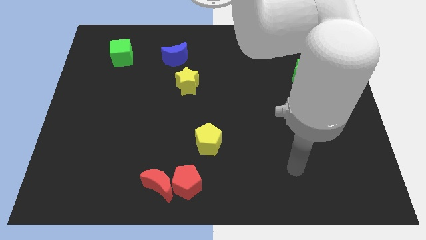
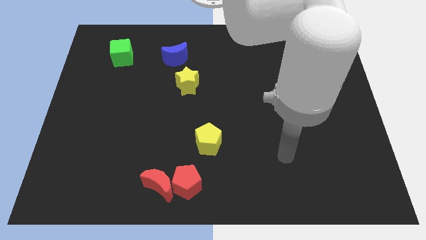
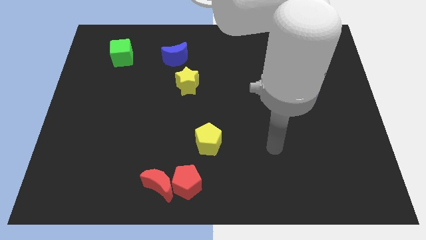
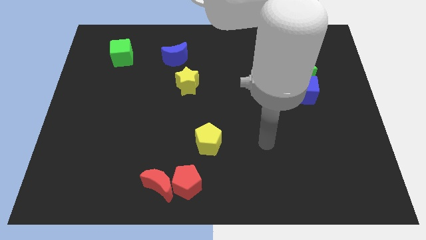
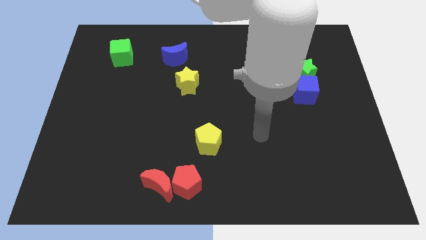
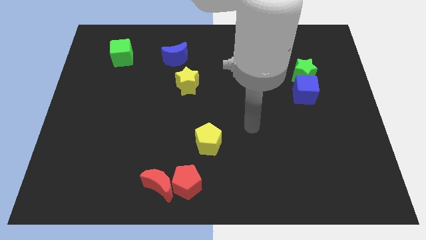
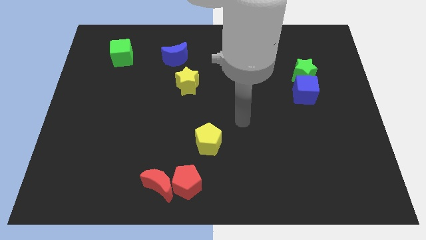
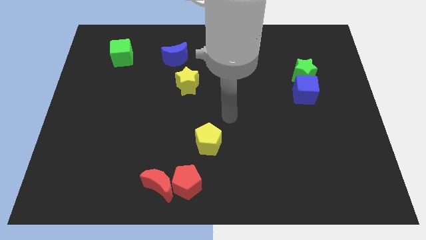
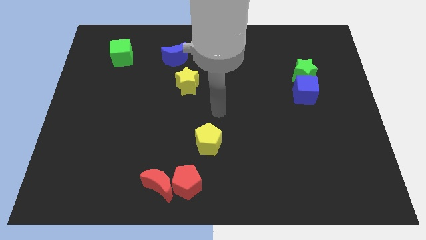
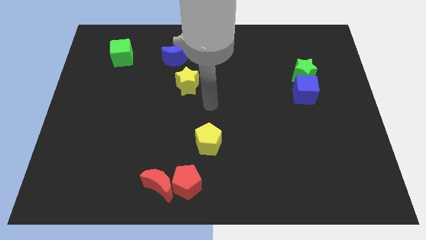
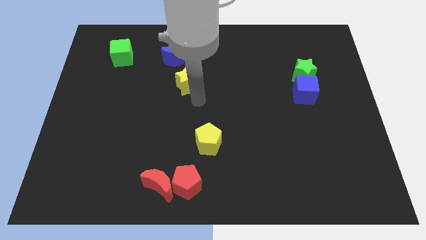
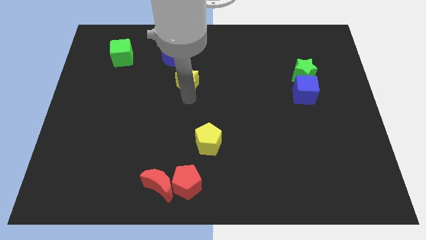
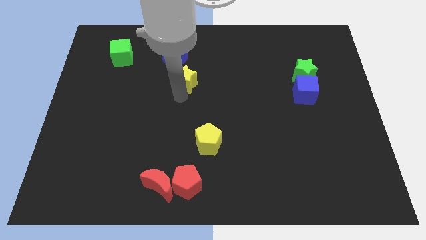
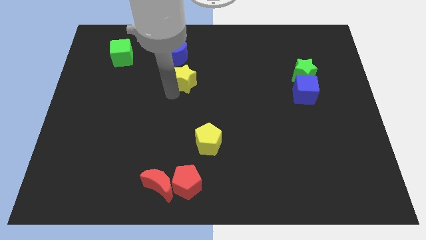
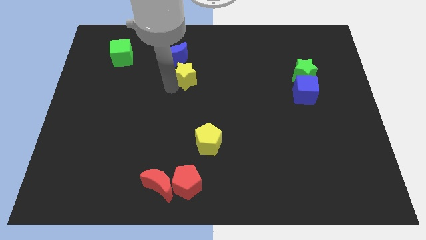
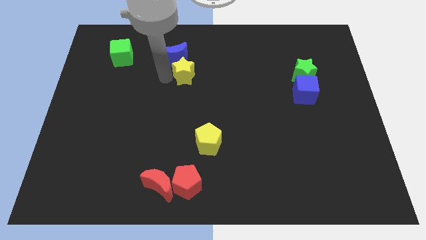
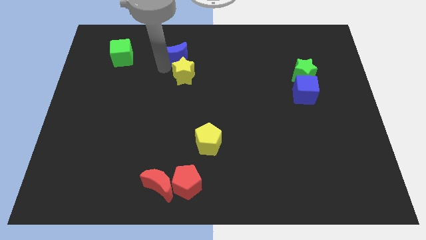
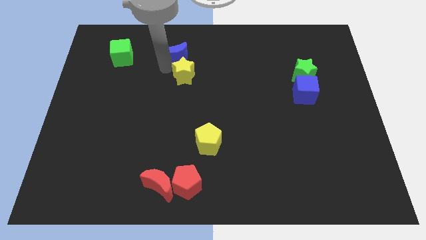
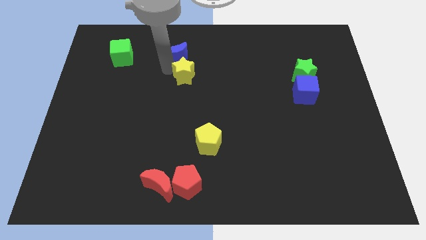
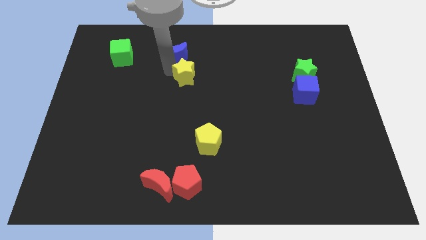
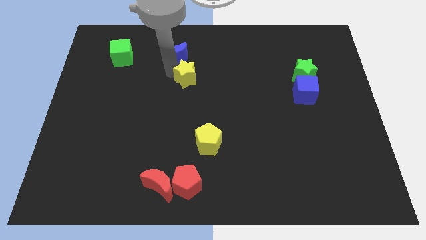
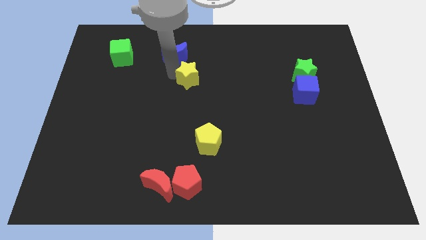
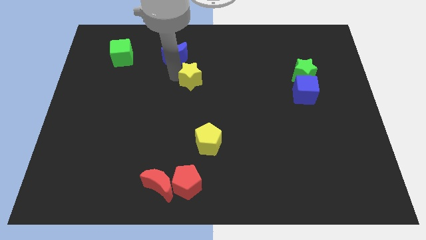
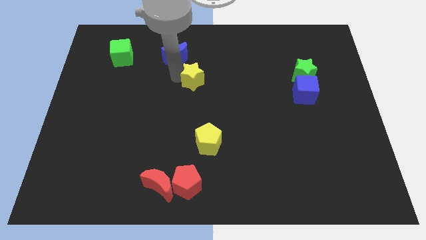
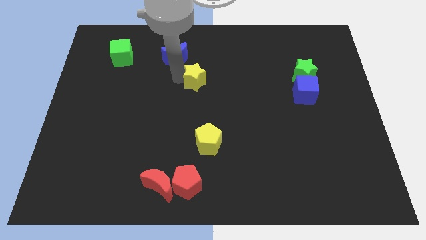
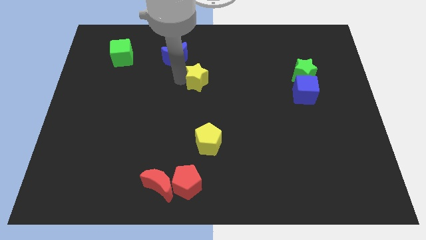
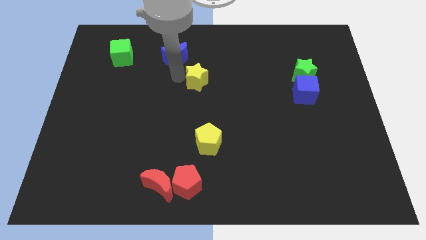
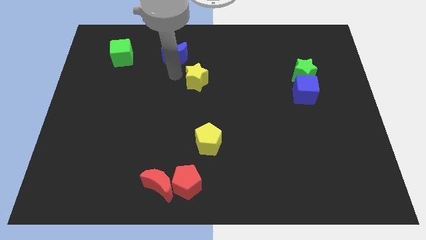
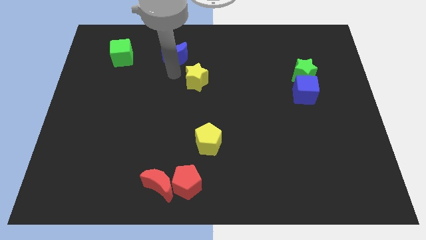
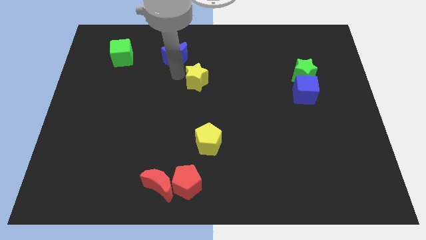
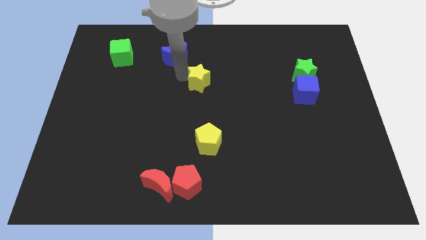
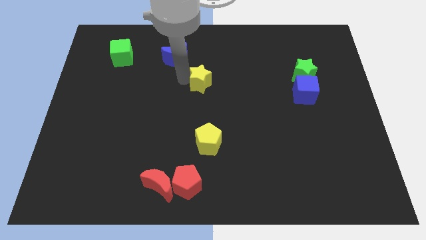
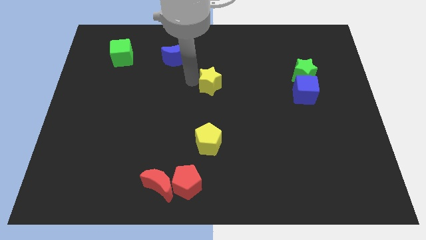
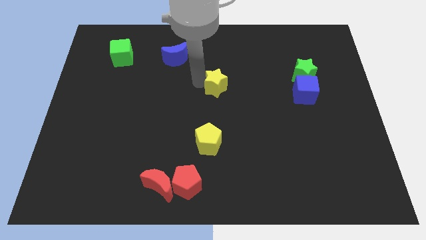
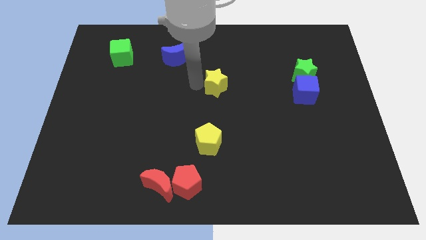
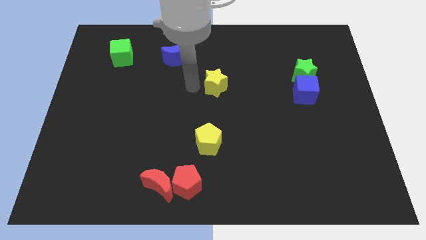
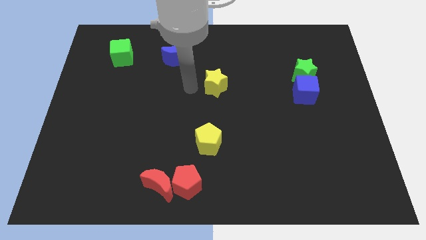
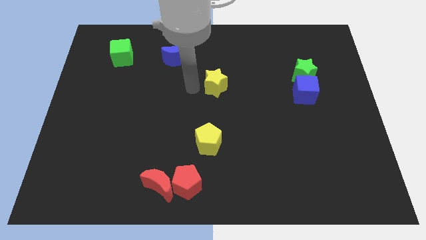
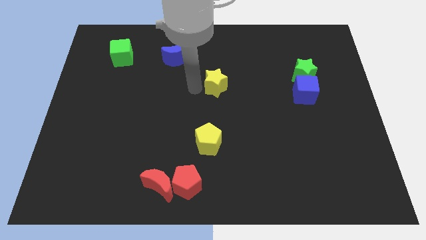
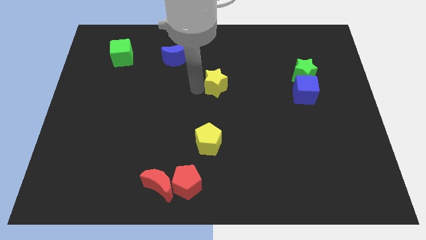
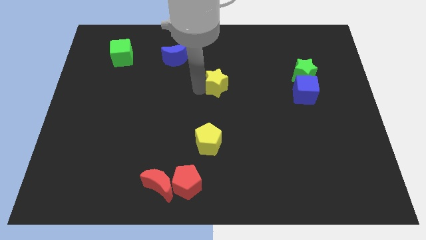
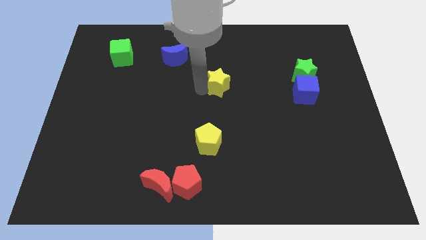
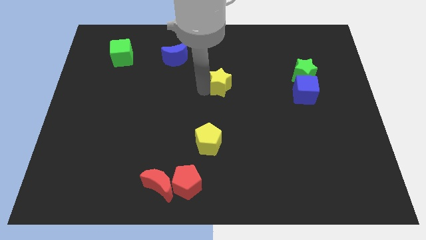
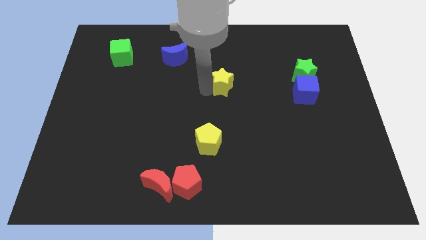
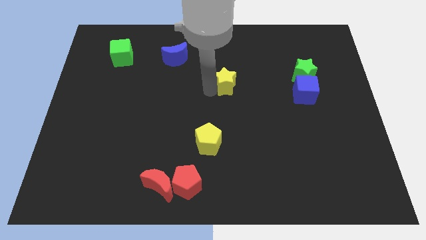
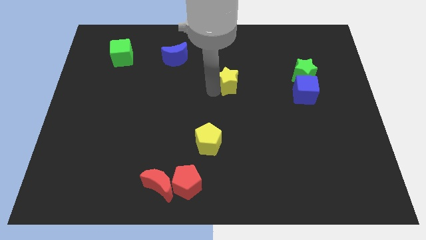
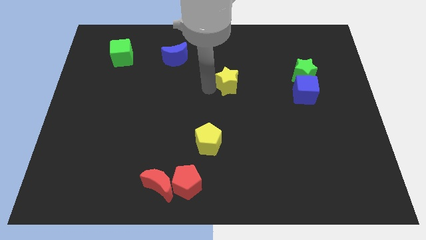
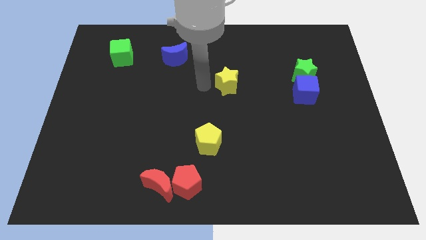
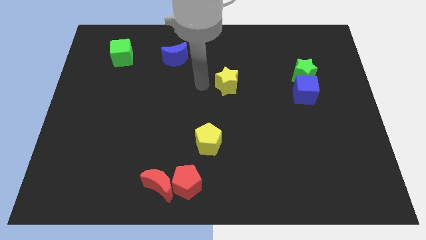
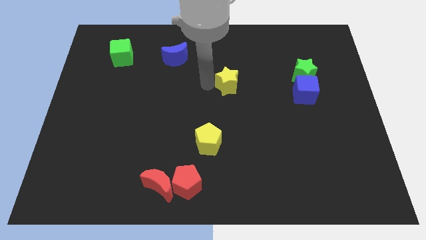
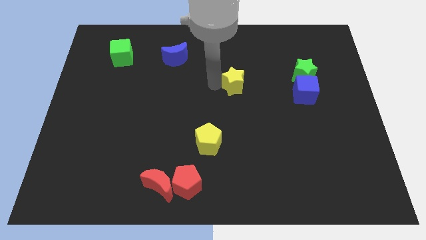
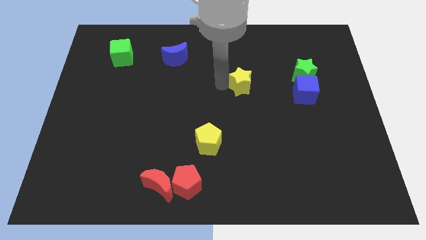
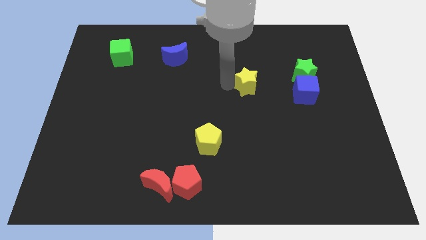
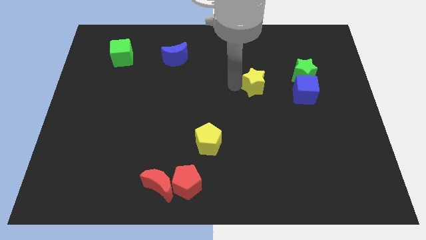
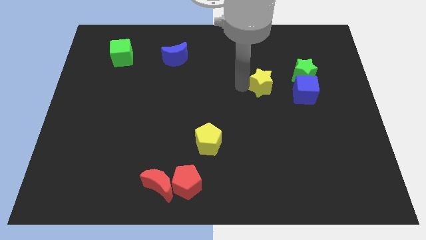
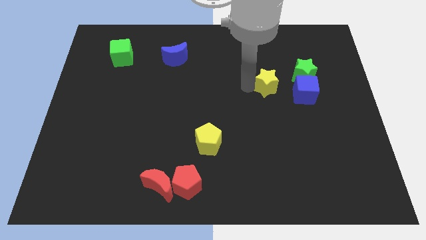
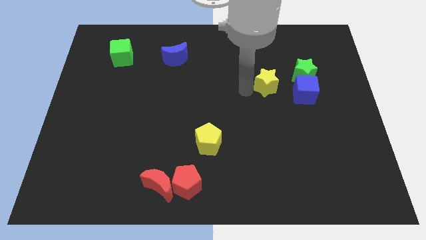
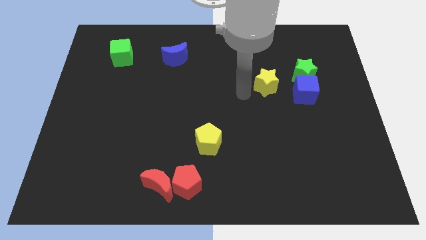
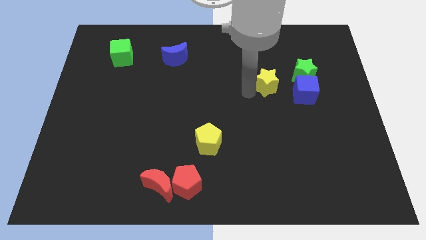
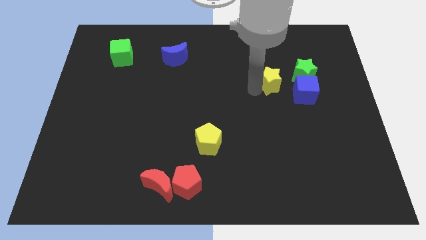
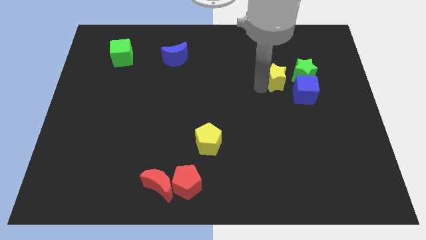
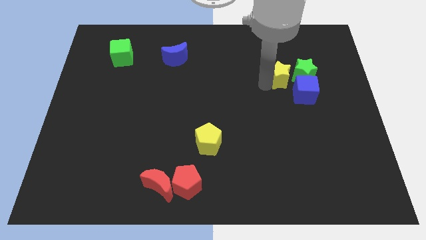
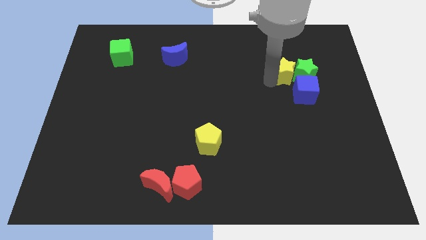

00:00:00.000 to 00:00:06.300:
move the yellow star to the green star
